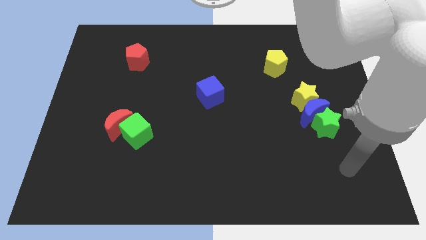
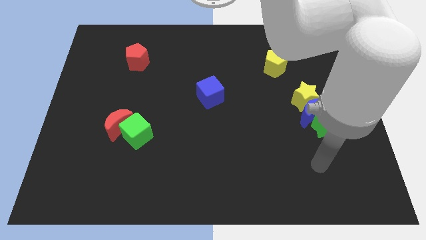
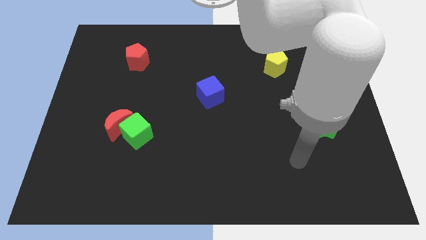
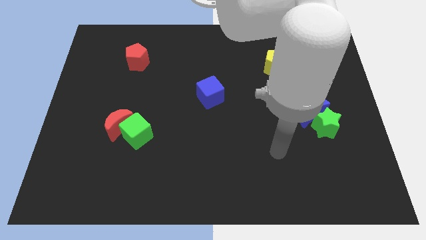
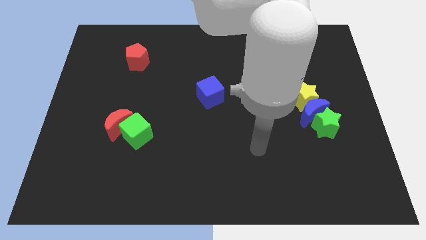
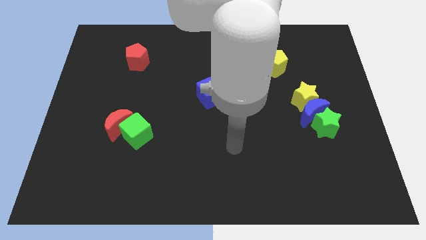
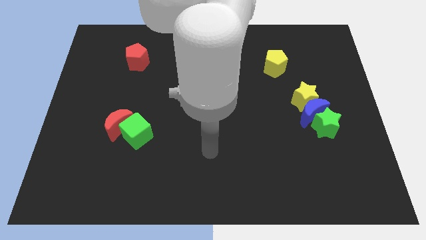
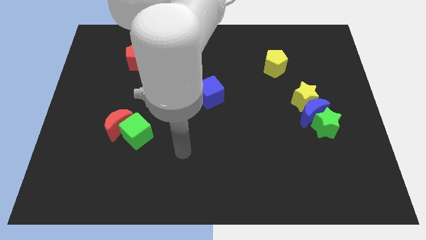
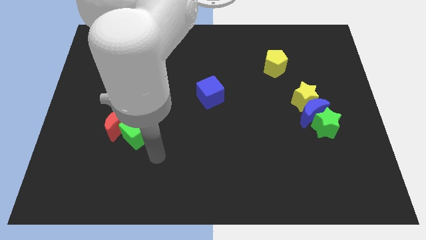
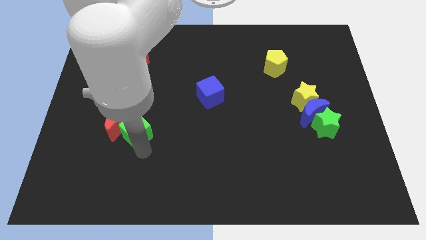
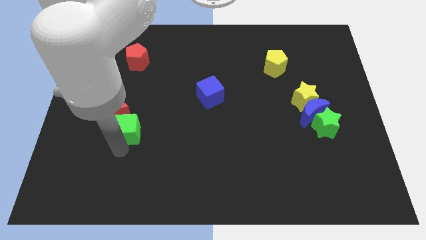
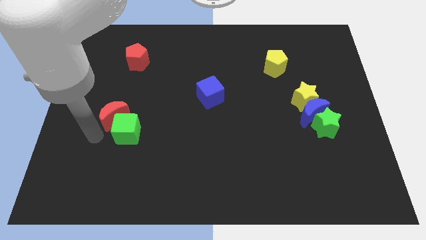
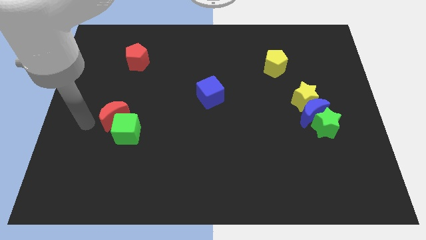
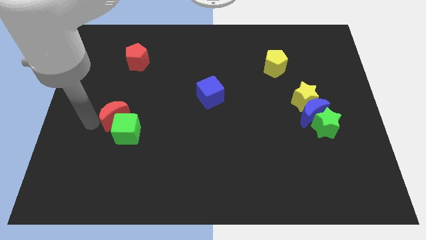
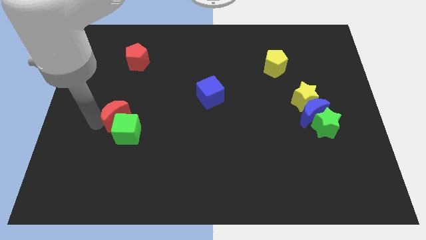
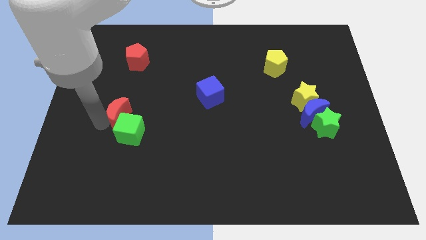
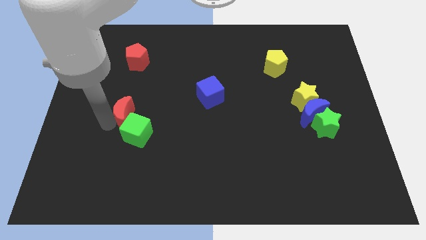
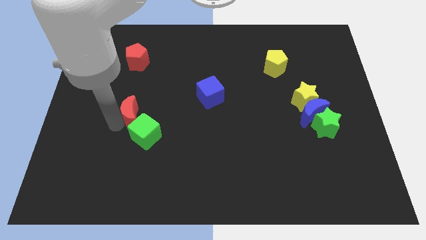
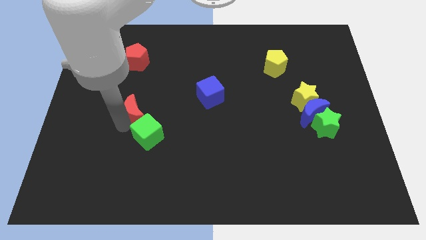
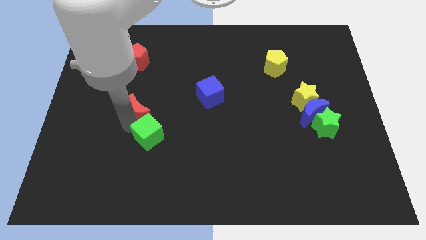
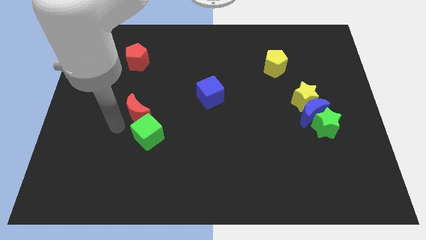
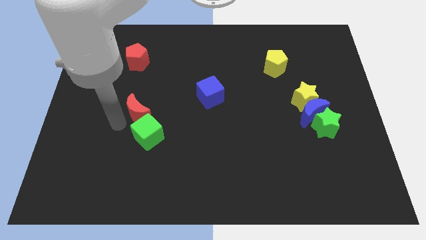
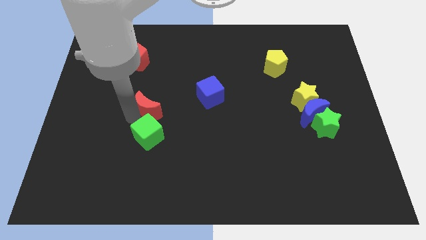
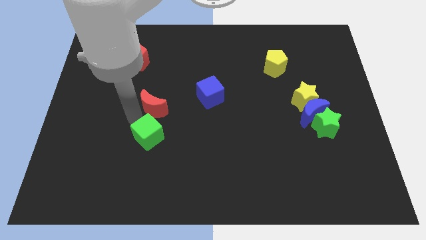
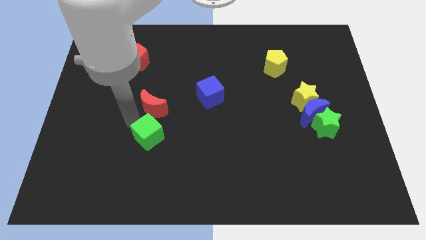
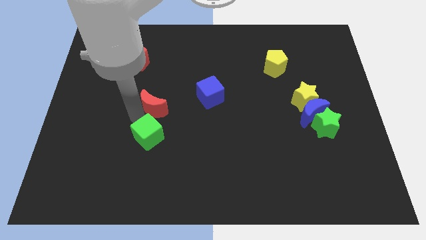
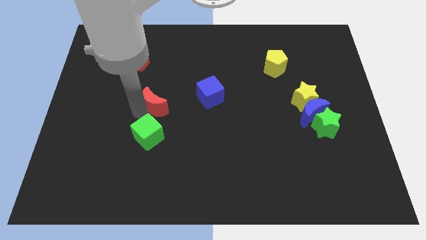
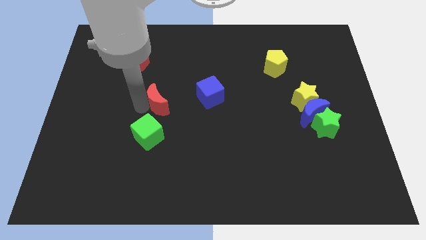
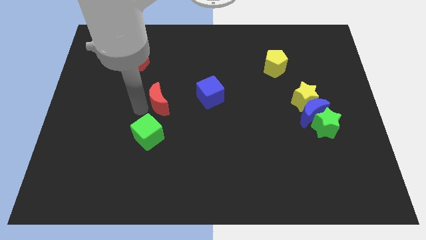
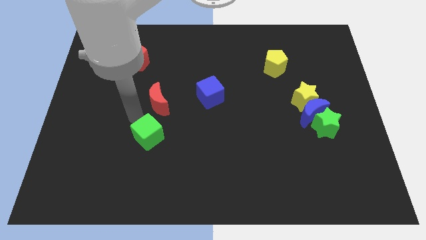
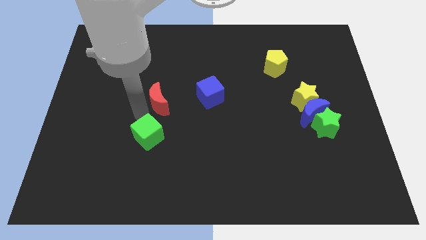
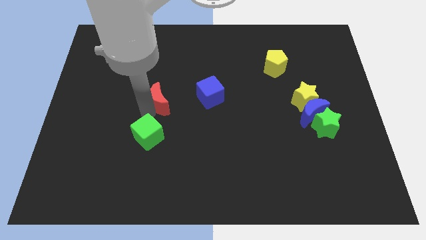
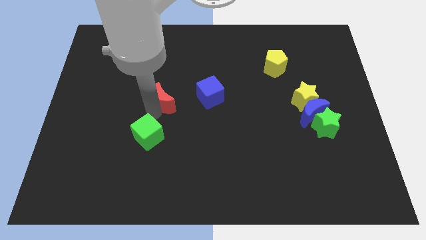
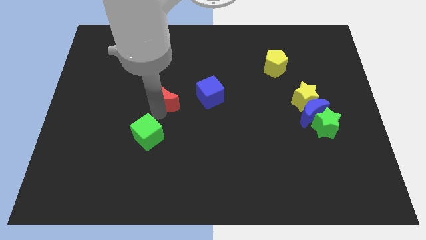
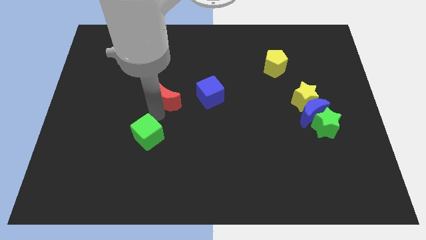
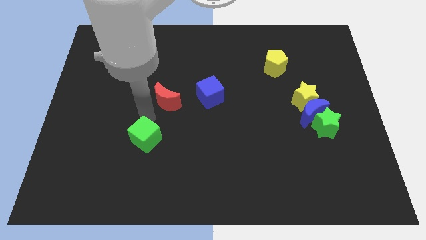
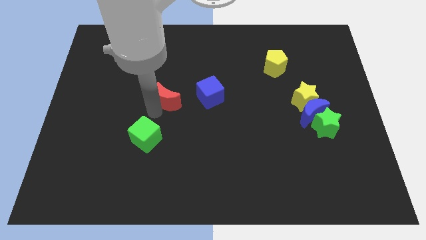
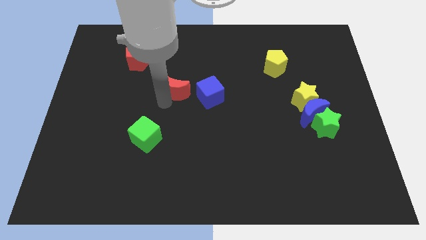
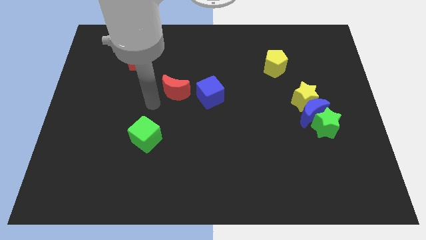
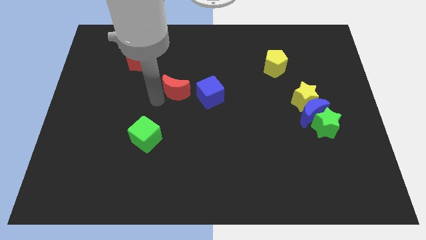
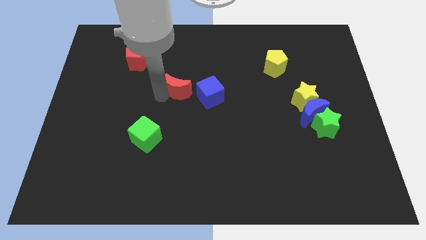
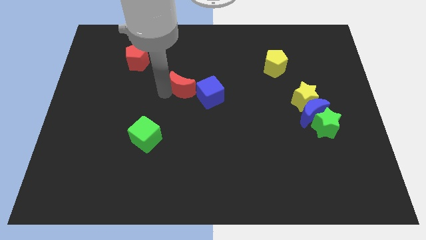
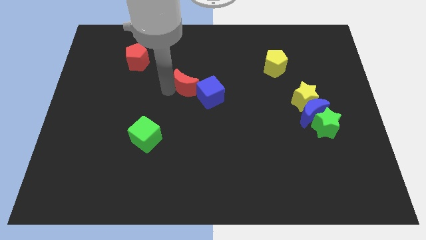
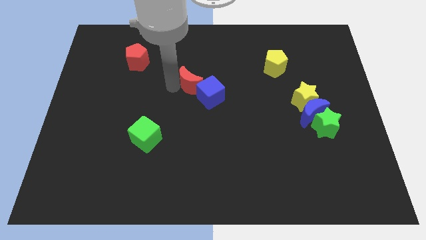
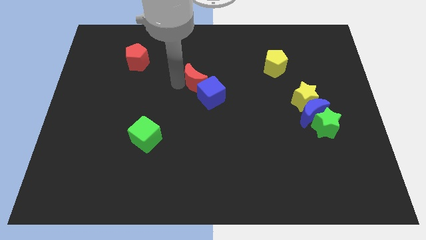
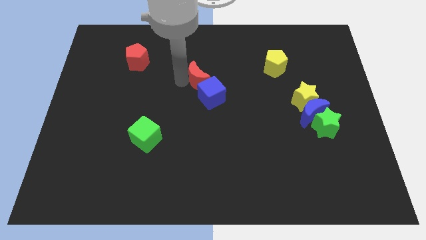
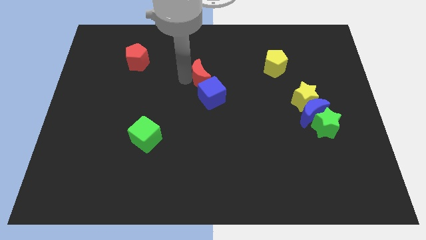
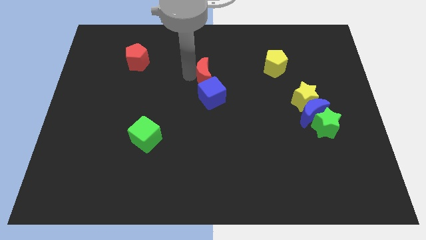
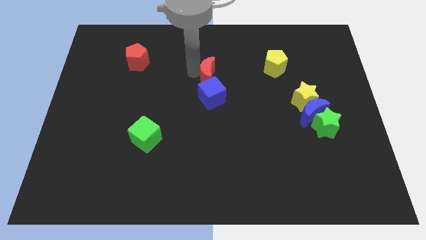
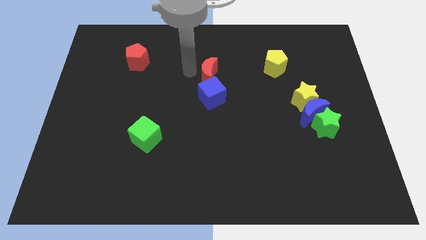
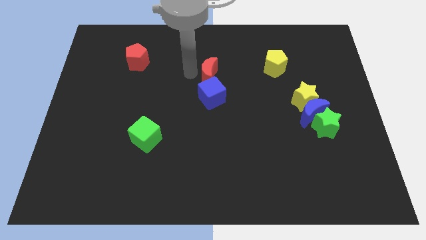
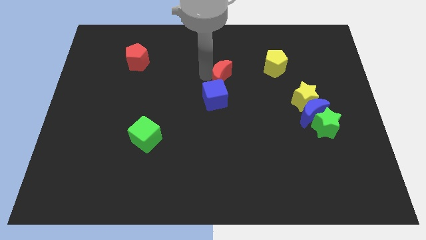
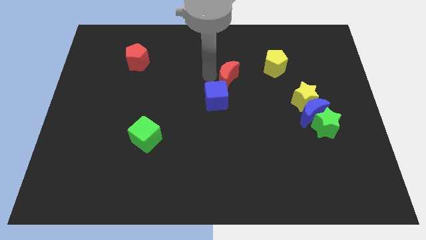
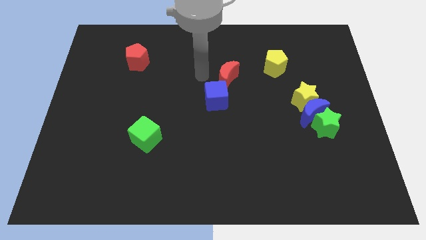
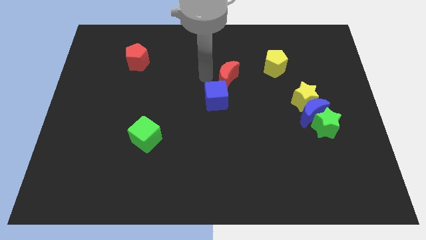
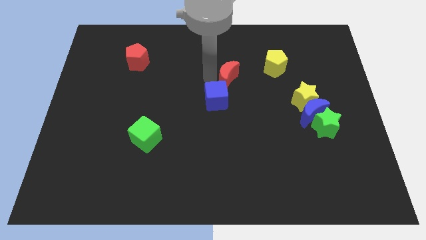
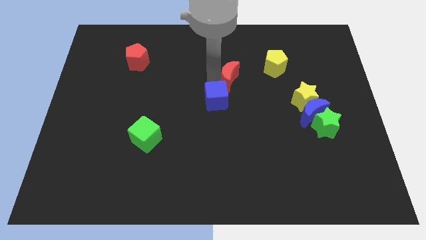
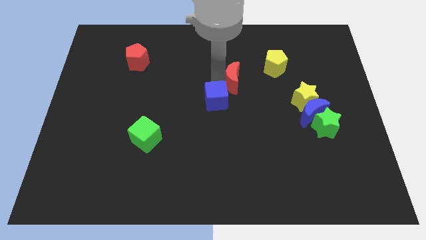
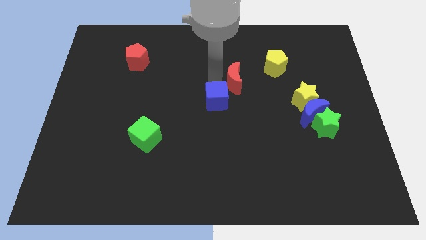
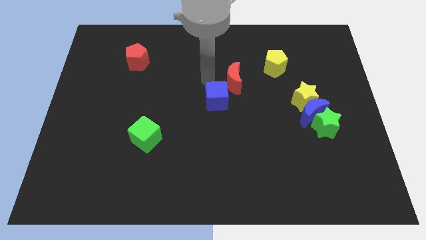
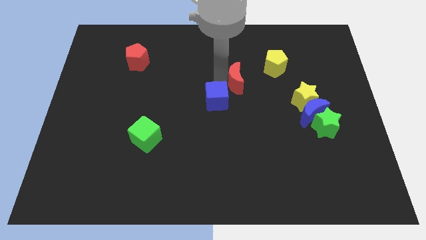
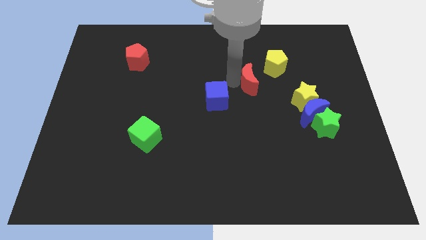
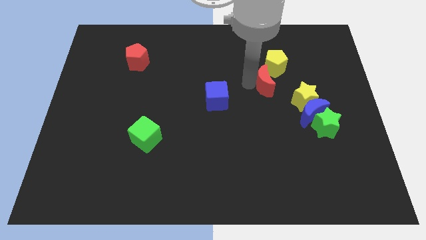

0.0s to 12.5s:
move the red moon to the top left side of the yellow star

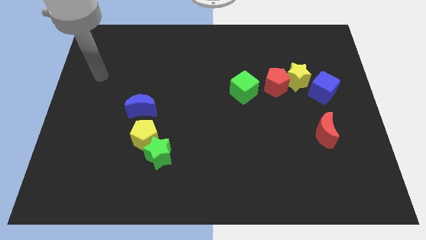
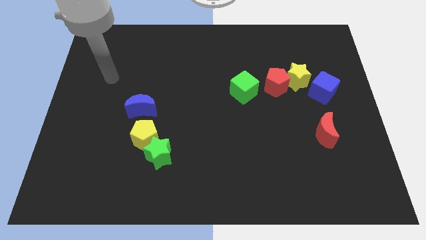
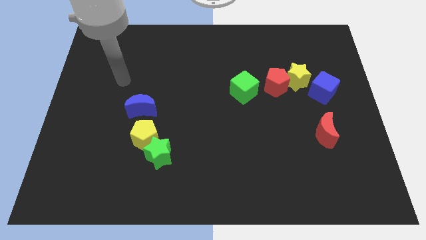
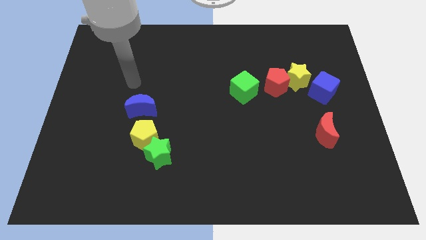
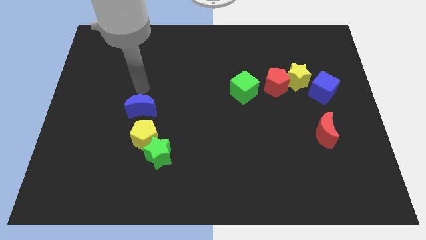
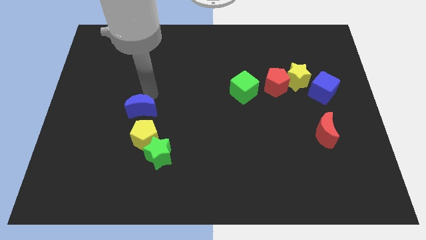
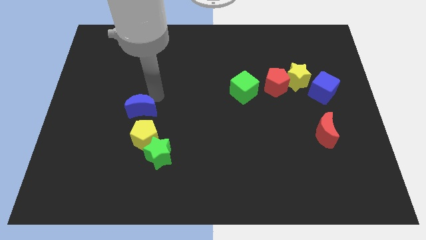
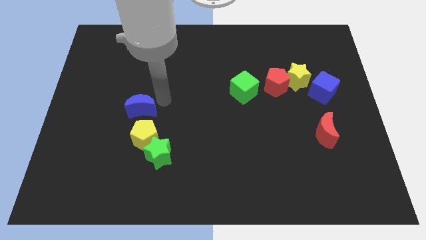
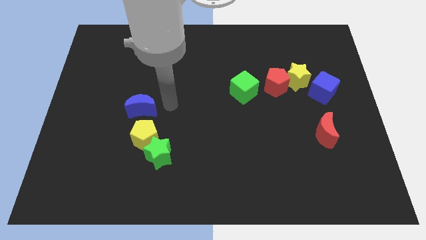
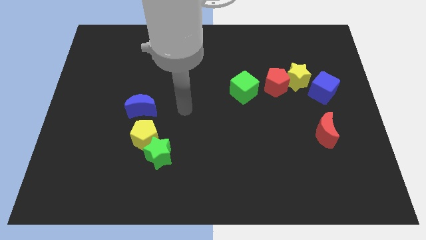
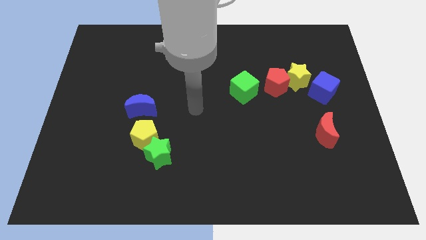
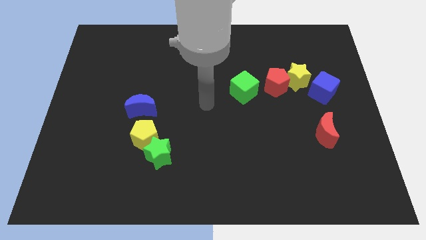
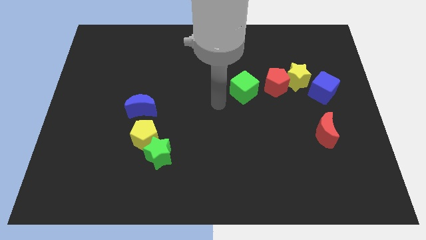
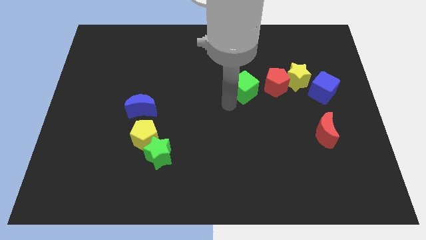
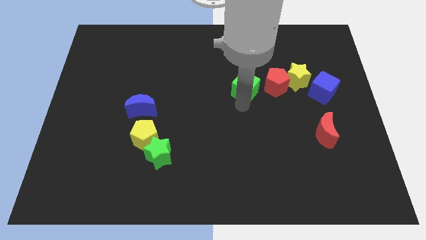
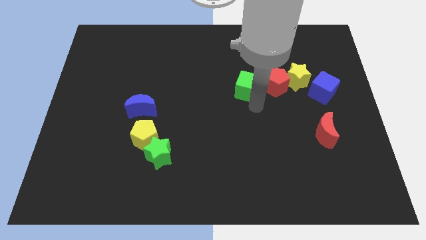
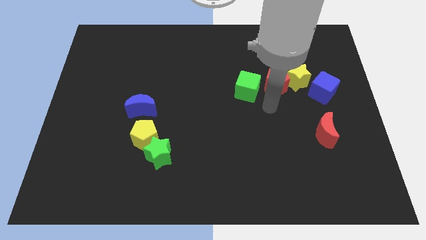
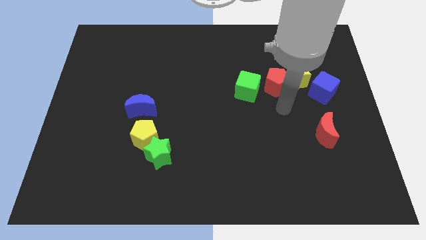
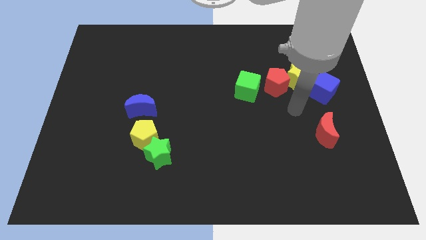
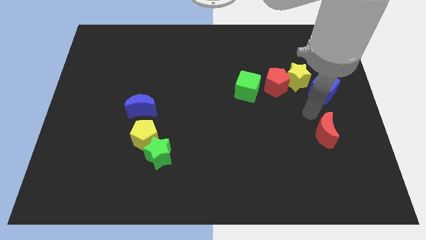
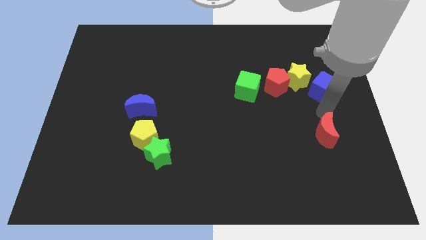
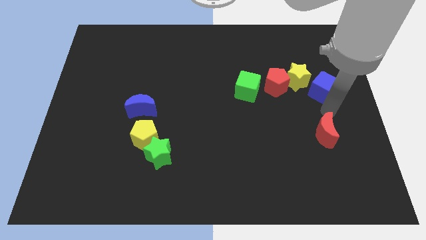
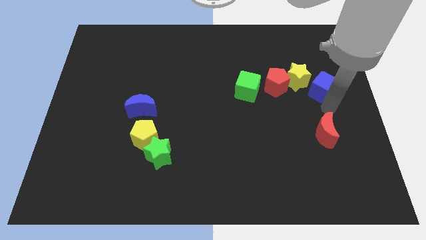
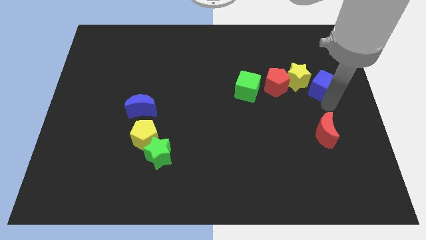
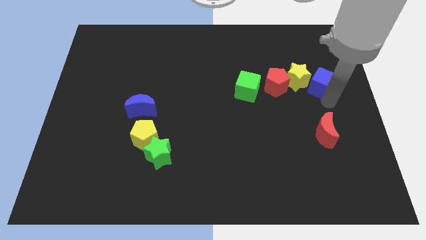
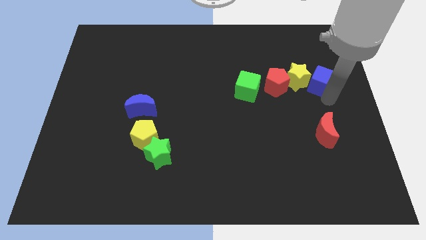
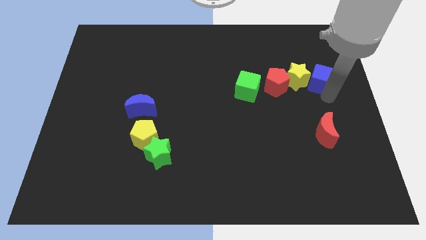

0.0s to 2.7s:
move the blue cube to the top right side of the yellow star
